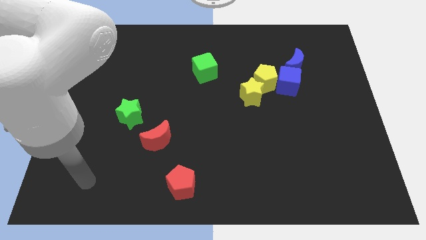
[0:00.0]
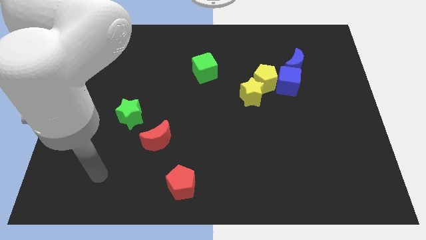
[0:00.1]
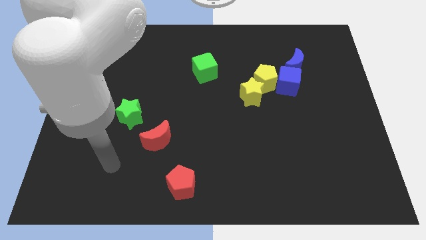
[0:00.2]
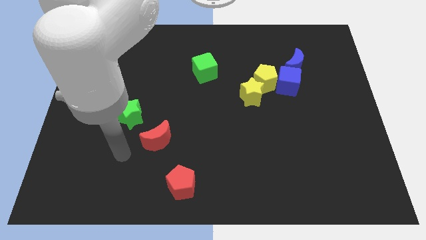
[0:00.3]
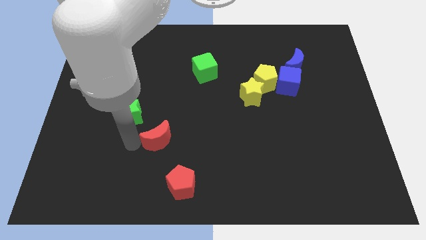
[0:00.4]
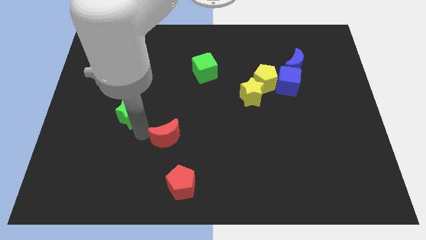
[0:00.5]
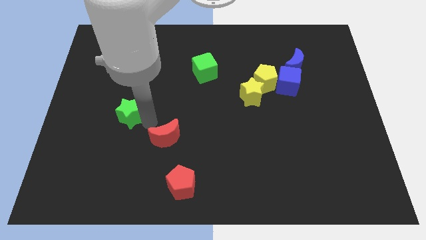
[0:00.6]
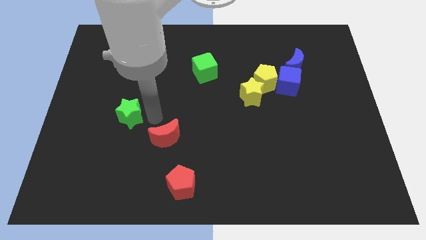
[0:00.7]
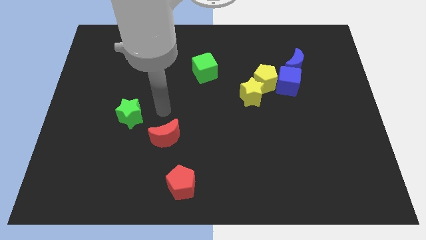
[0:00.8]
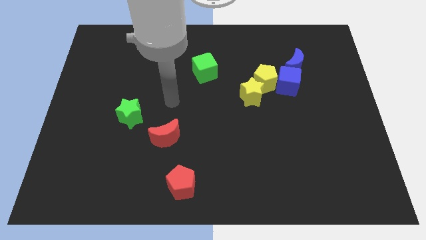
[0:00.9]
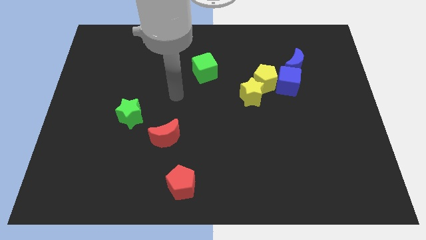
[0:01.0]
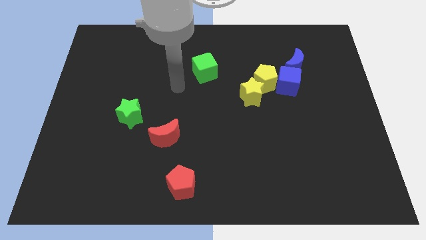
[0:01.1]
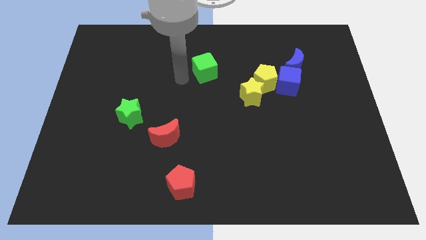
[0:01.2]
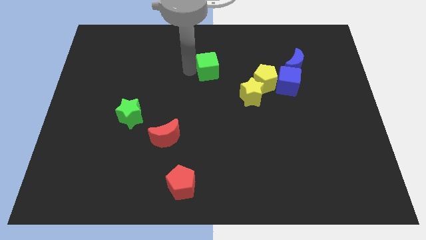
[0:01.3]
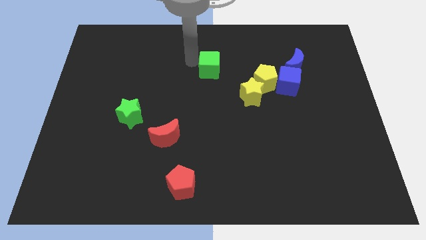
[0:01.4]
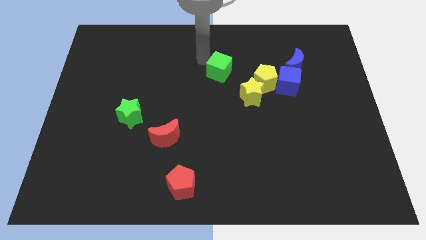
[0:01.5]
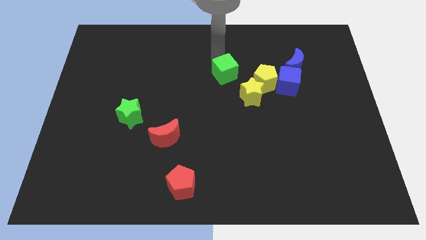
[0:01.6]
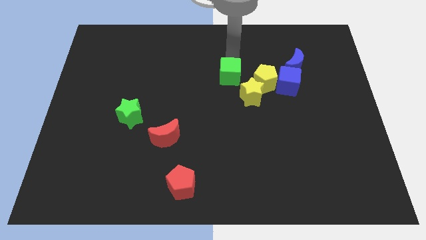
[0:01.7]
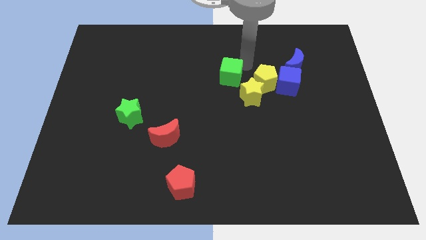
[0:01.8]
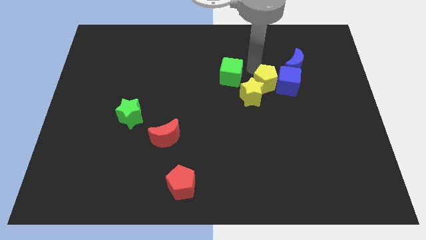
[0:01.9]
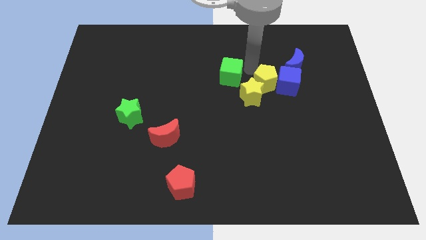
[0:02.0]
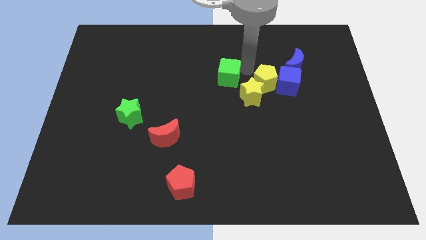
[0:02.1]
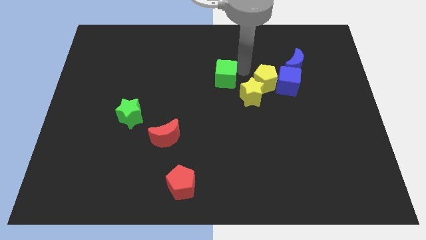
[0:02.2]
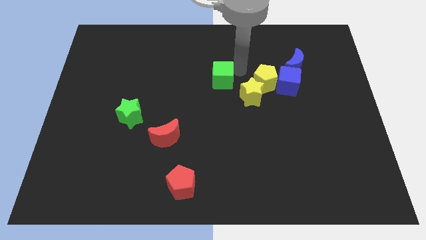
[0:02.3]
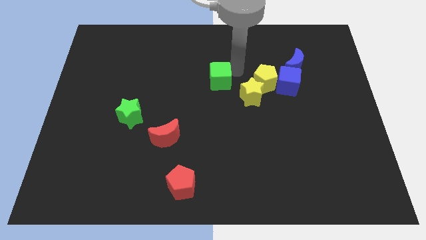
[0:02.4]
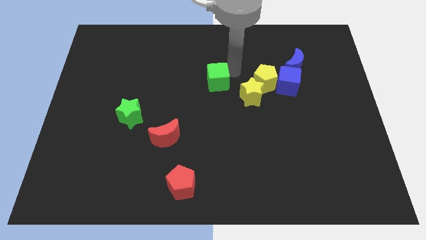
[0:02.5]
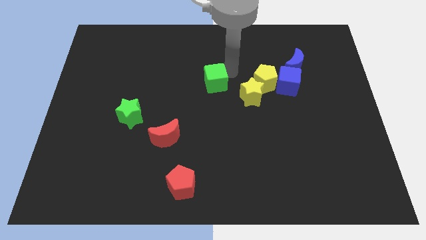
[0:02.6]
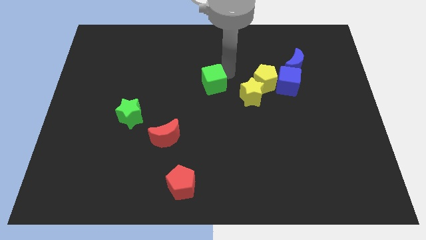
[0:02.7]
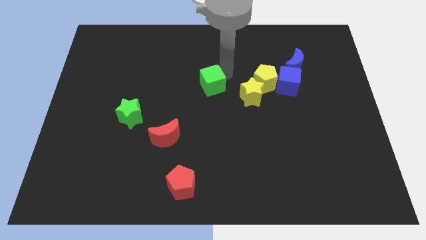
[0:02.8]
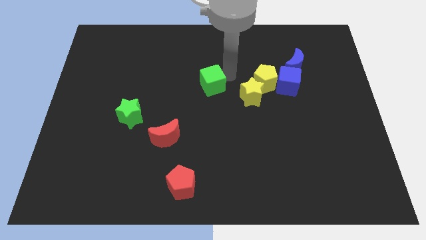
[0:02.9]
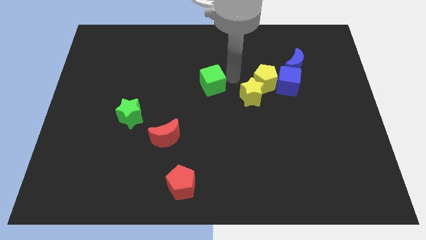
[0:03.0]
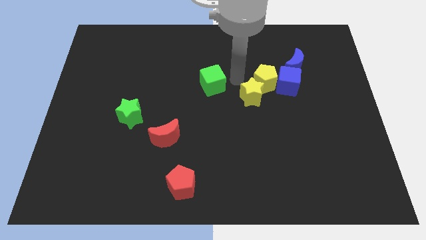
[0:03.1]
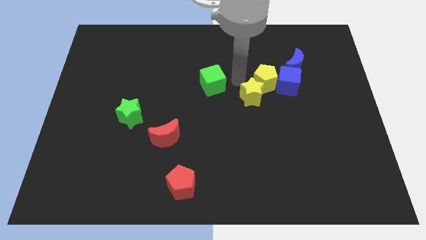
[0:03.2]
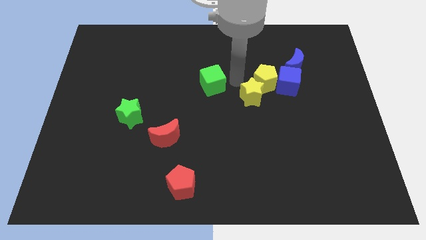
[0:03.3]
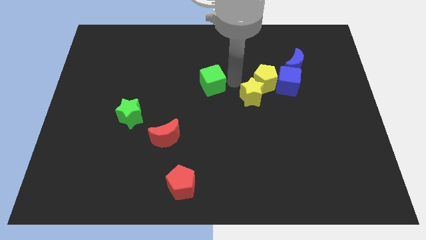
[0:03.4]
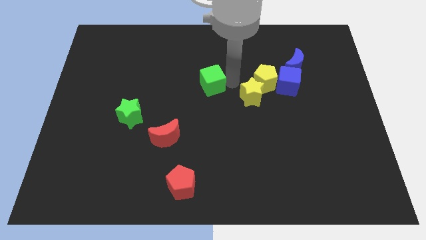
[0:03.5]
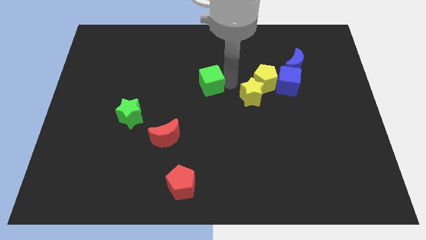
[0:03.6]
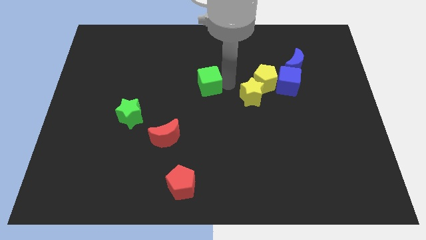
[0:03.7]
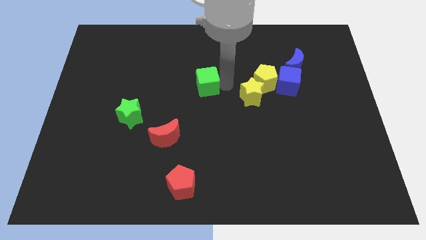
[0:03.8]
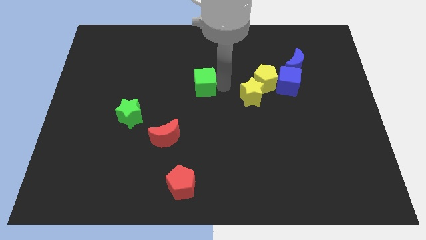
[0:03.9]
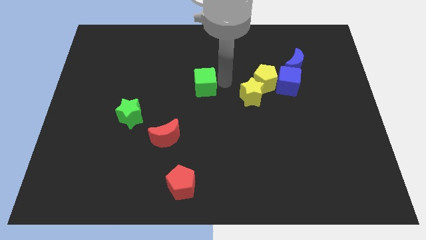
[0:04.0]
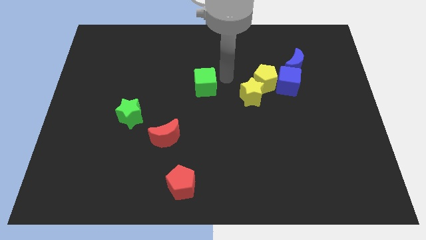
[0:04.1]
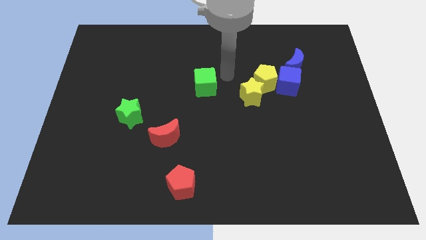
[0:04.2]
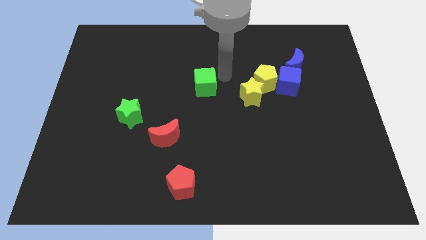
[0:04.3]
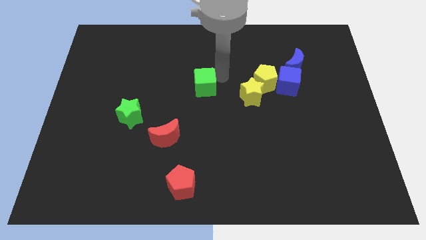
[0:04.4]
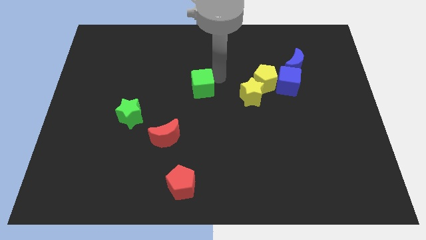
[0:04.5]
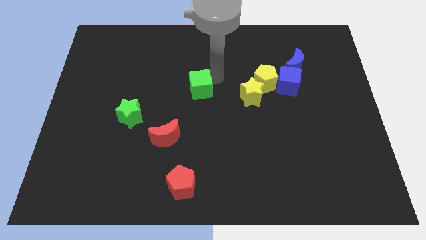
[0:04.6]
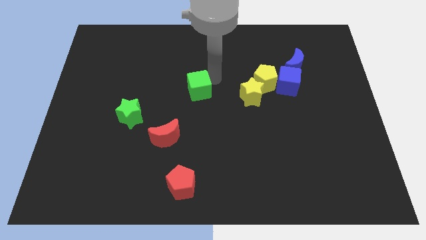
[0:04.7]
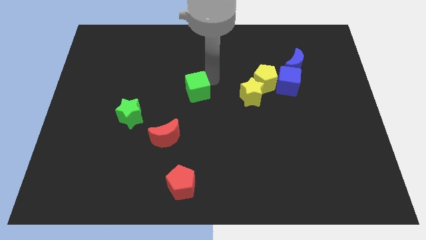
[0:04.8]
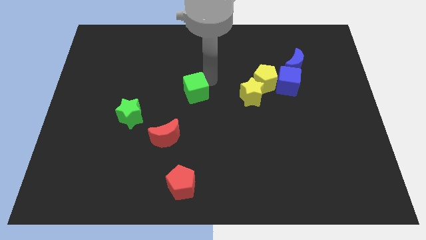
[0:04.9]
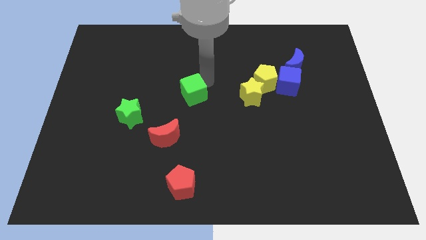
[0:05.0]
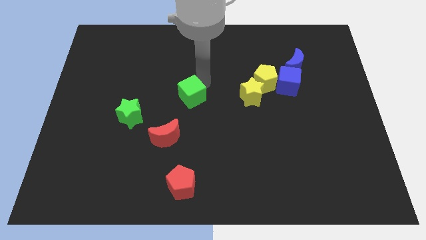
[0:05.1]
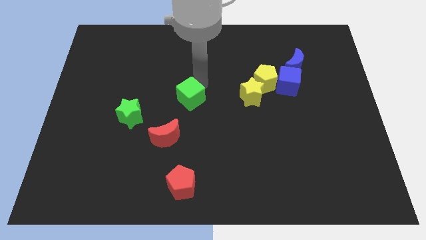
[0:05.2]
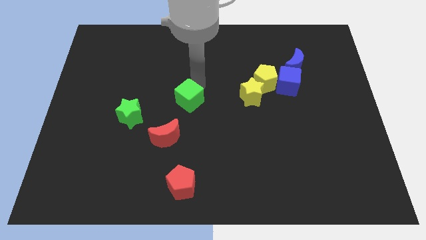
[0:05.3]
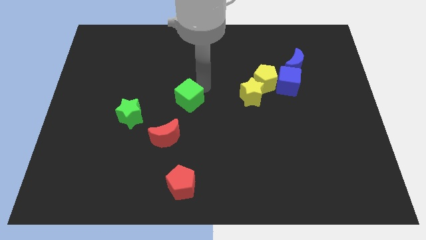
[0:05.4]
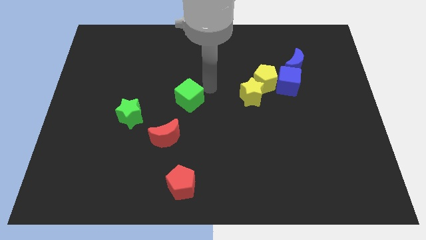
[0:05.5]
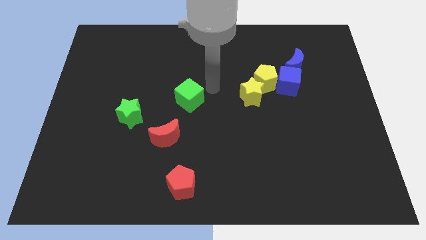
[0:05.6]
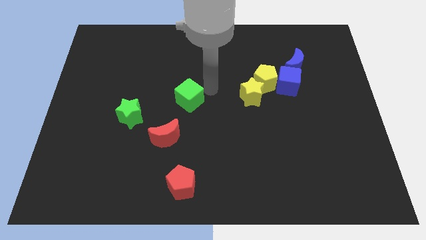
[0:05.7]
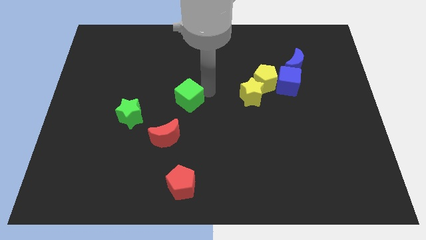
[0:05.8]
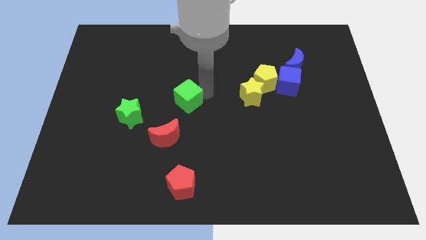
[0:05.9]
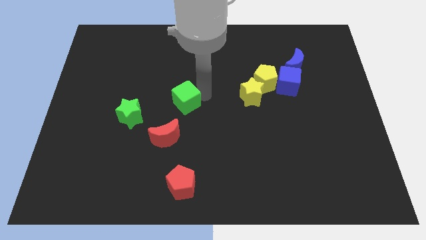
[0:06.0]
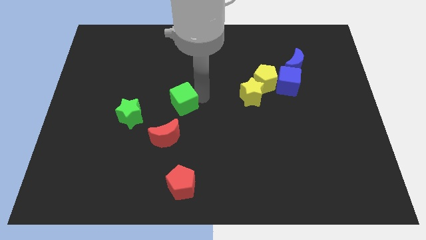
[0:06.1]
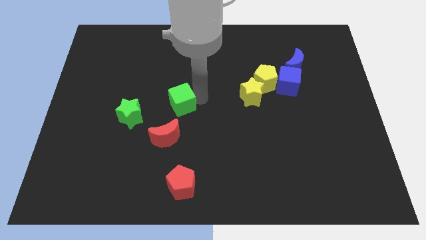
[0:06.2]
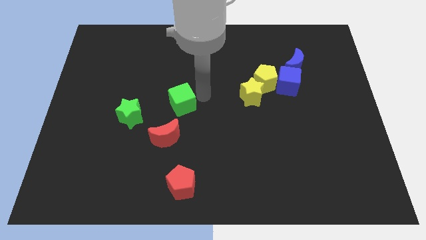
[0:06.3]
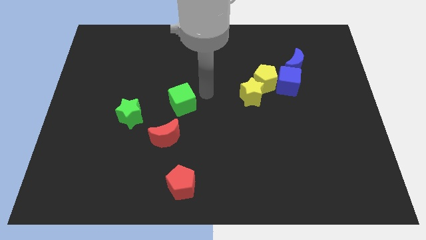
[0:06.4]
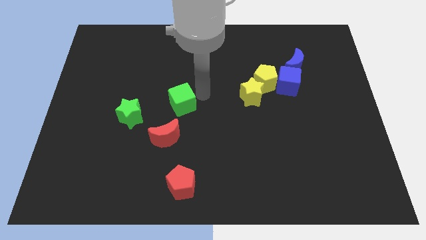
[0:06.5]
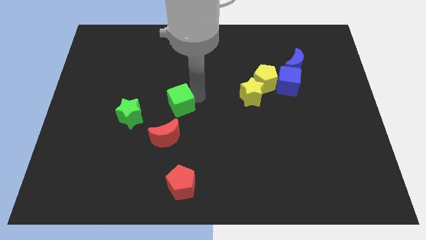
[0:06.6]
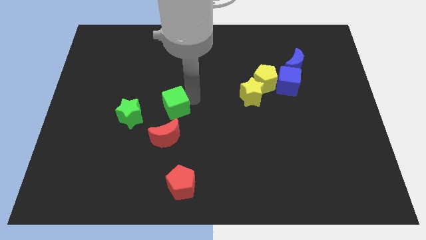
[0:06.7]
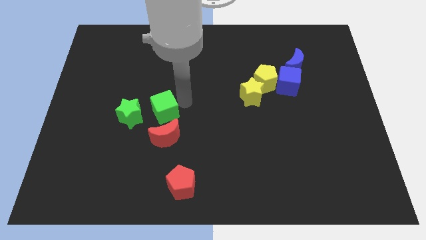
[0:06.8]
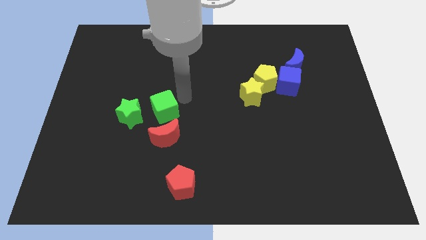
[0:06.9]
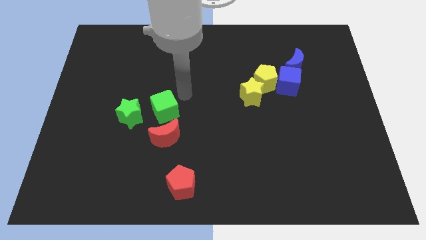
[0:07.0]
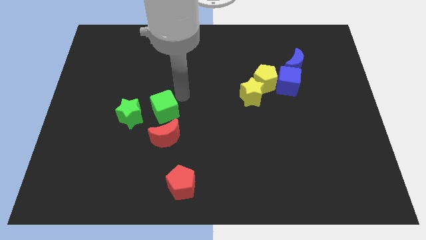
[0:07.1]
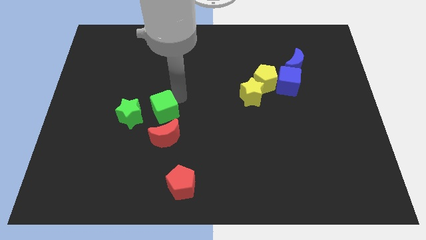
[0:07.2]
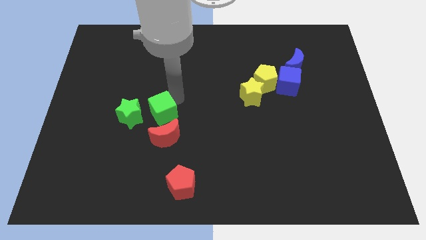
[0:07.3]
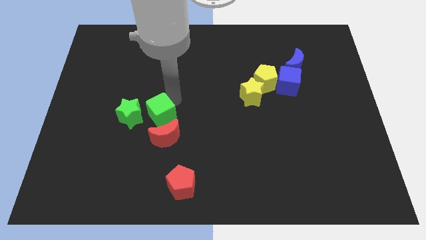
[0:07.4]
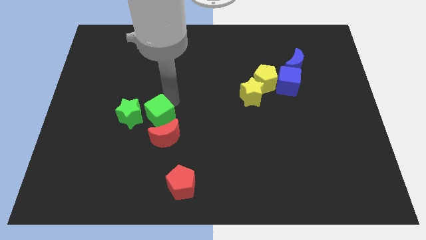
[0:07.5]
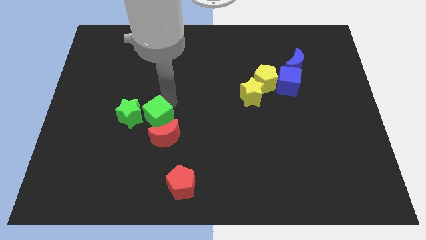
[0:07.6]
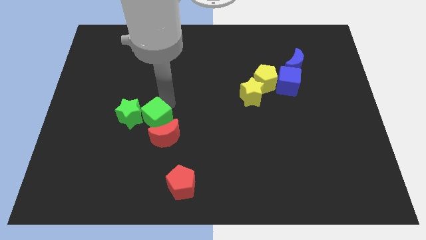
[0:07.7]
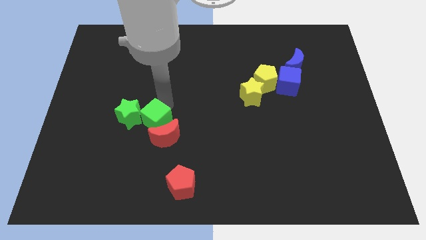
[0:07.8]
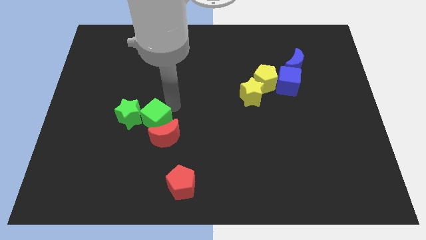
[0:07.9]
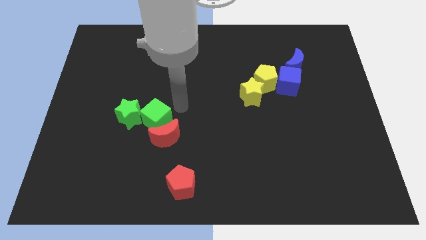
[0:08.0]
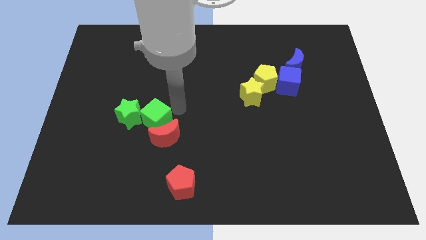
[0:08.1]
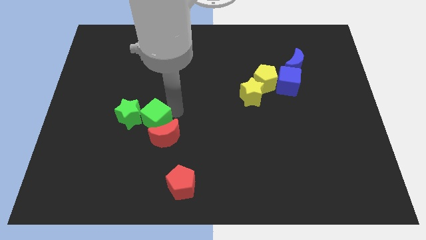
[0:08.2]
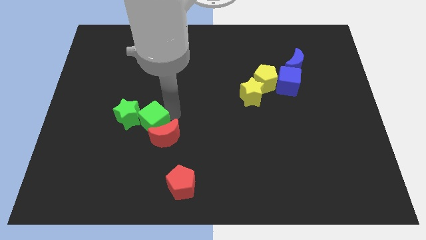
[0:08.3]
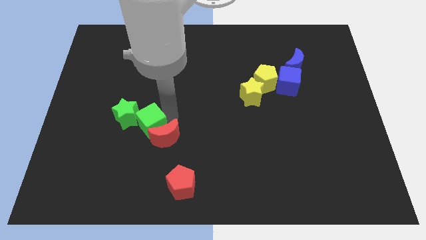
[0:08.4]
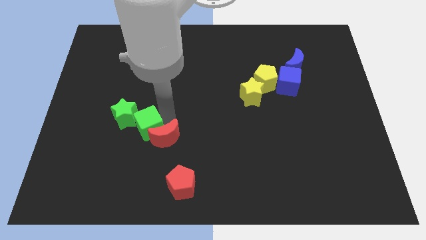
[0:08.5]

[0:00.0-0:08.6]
slide the green cube diagonally down and to the left
